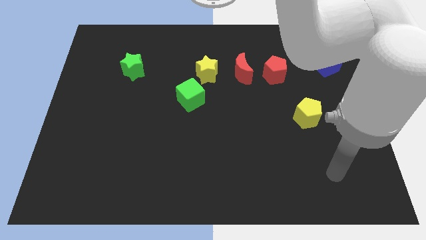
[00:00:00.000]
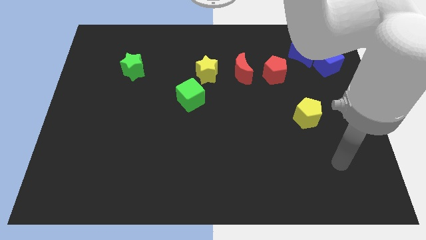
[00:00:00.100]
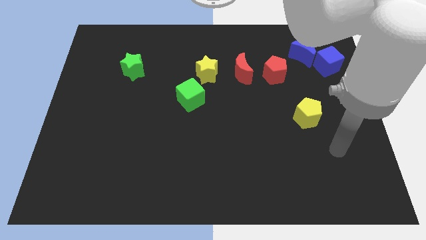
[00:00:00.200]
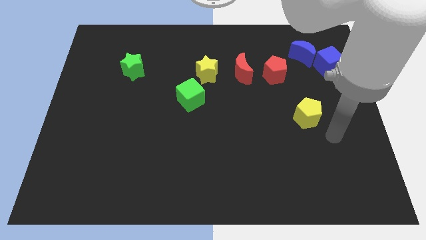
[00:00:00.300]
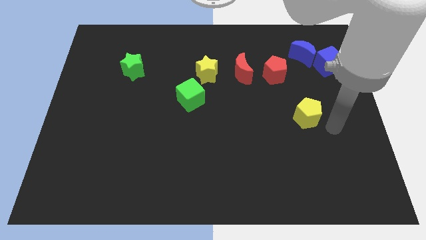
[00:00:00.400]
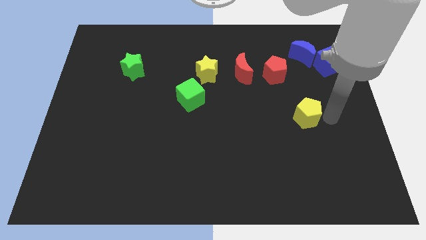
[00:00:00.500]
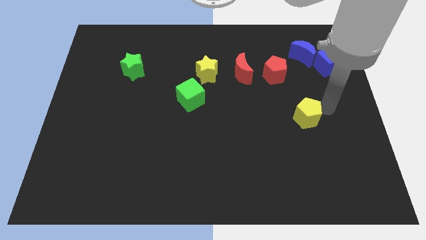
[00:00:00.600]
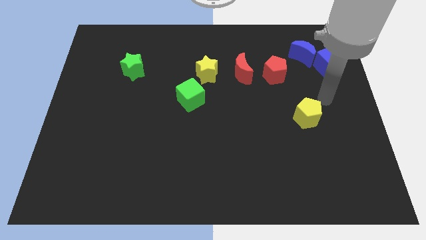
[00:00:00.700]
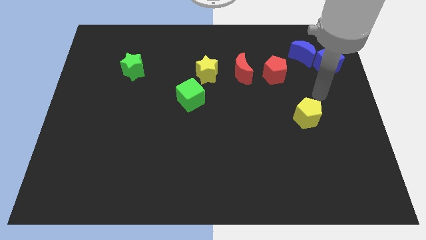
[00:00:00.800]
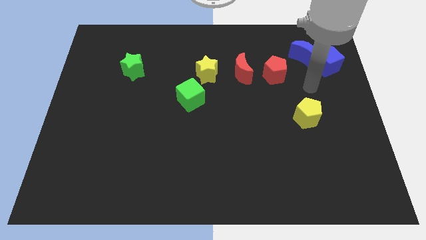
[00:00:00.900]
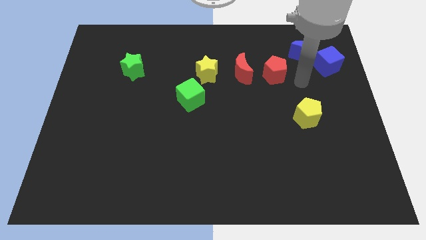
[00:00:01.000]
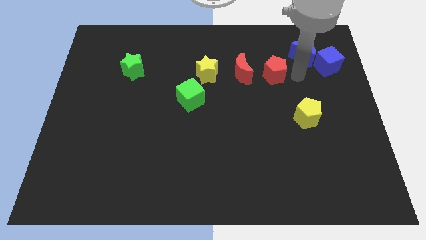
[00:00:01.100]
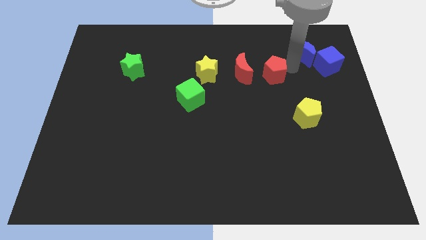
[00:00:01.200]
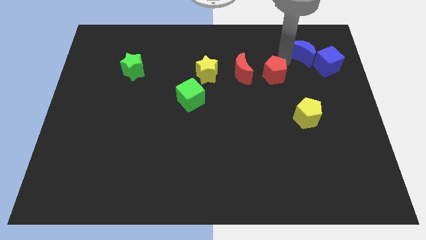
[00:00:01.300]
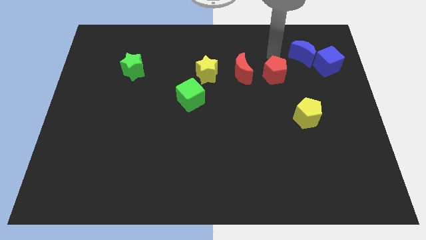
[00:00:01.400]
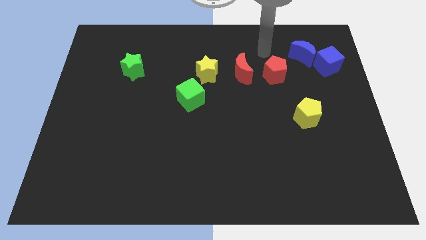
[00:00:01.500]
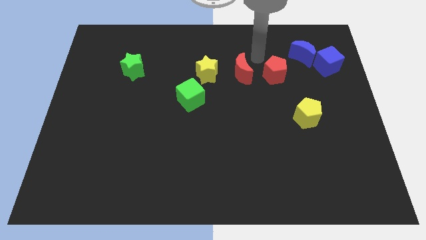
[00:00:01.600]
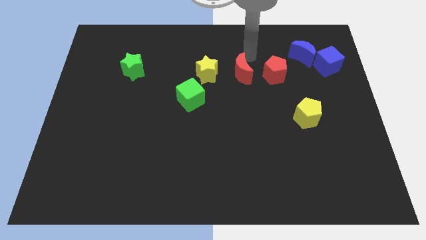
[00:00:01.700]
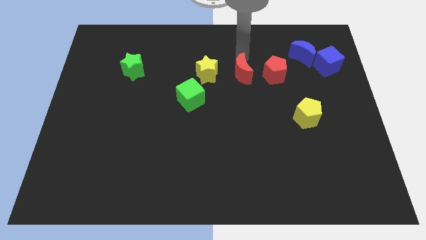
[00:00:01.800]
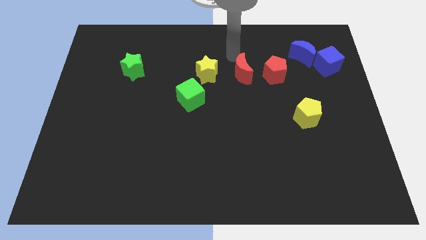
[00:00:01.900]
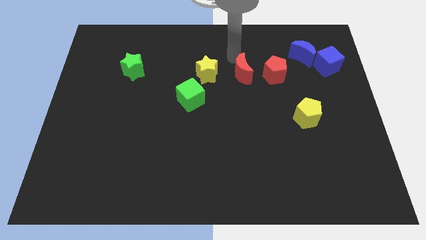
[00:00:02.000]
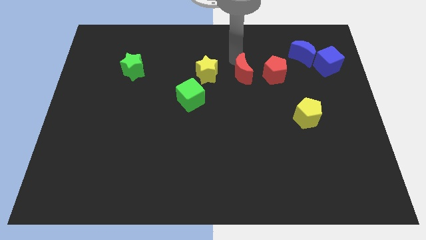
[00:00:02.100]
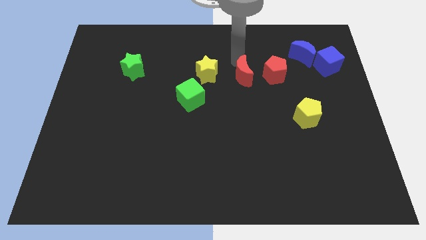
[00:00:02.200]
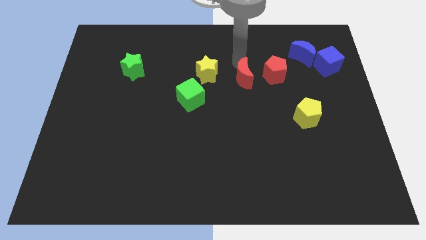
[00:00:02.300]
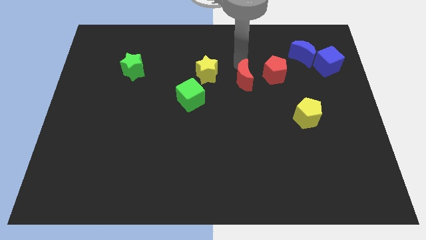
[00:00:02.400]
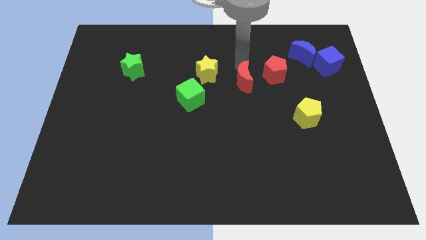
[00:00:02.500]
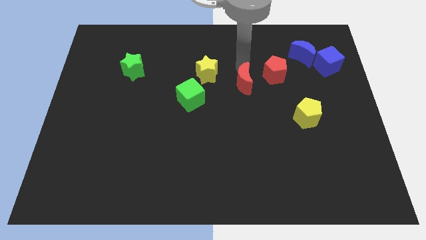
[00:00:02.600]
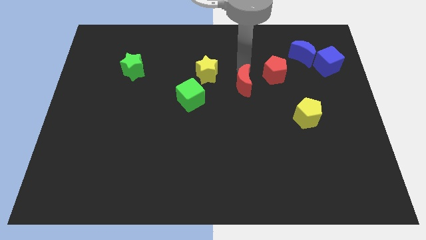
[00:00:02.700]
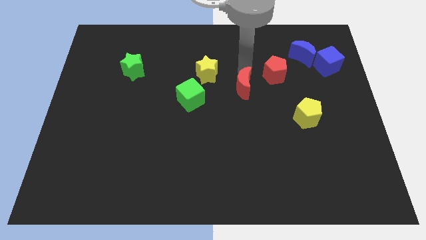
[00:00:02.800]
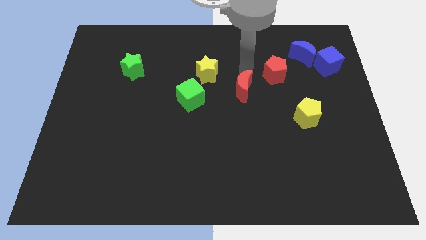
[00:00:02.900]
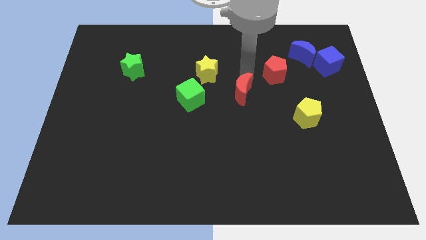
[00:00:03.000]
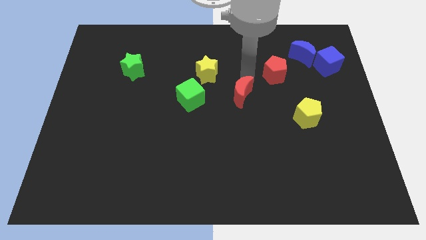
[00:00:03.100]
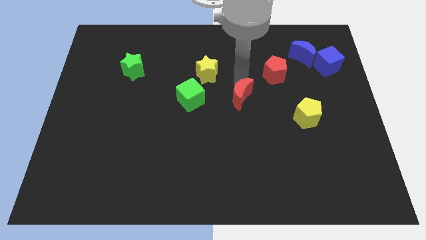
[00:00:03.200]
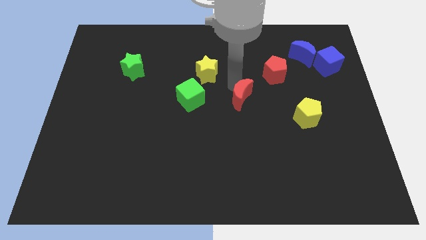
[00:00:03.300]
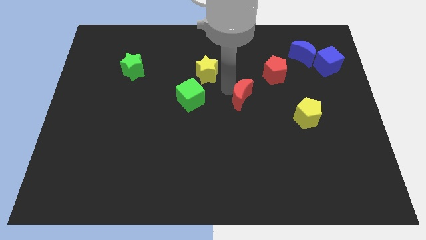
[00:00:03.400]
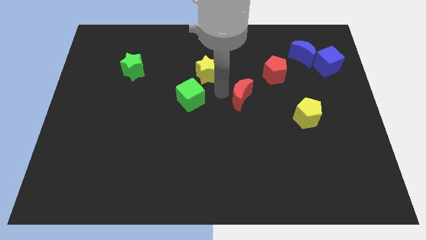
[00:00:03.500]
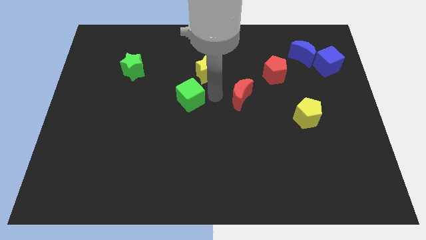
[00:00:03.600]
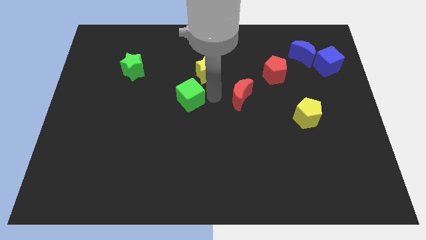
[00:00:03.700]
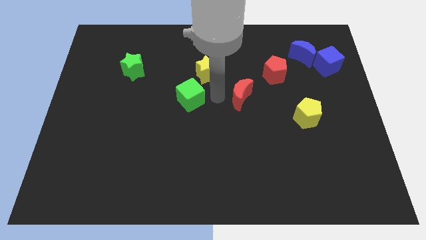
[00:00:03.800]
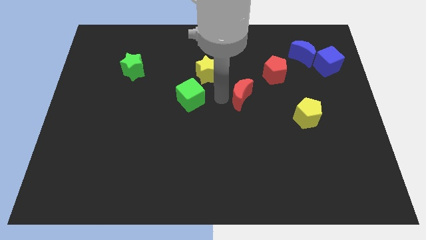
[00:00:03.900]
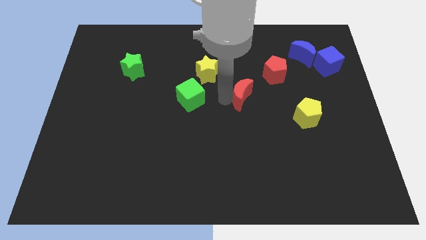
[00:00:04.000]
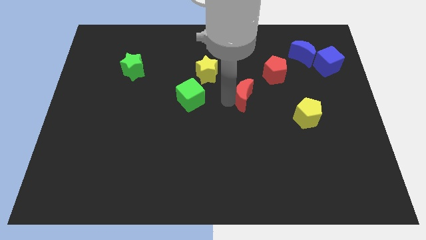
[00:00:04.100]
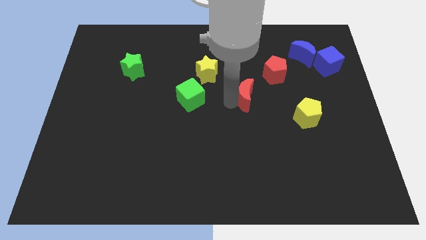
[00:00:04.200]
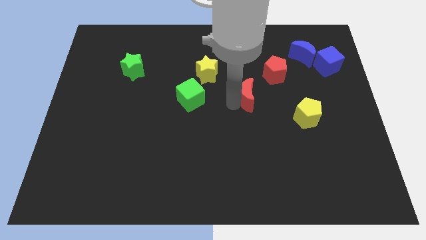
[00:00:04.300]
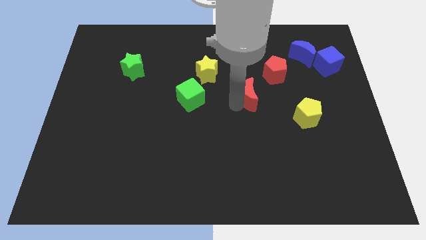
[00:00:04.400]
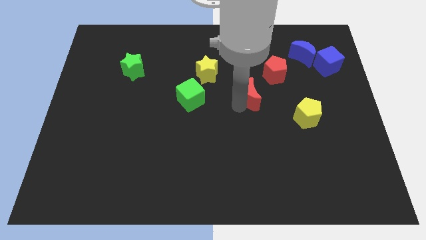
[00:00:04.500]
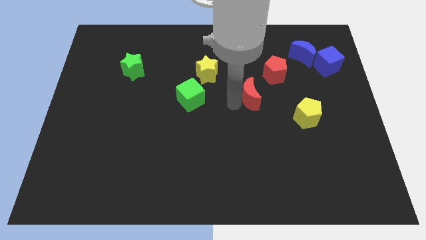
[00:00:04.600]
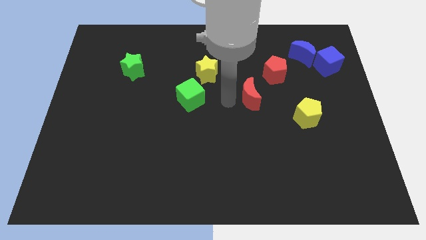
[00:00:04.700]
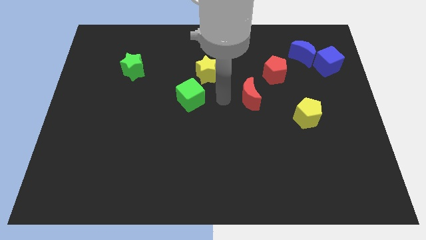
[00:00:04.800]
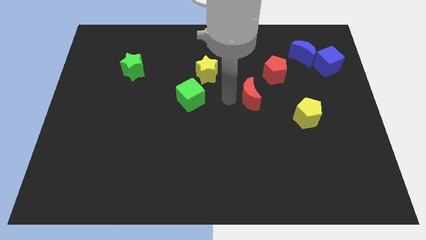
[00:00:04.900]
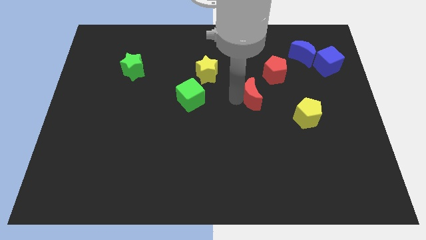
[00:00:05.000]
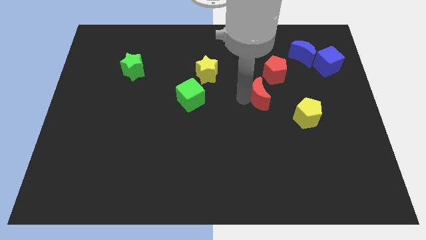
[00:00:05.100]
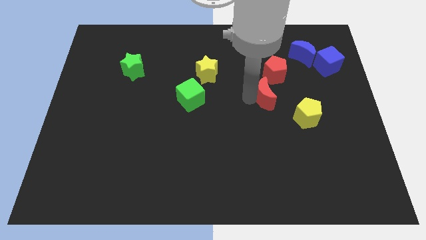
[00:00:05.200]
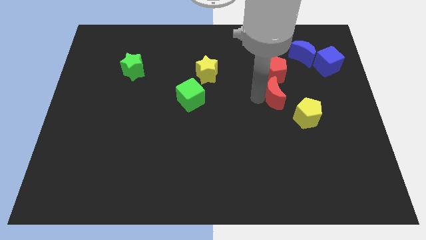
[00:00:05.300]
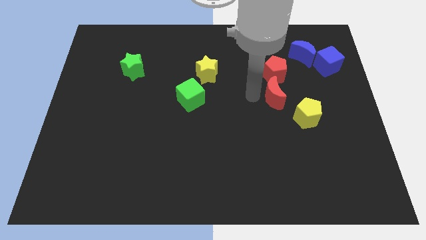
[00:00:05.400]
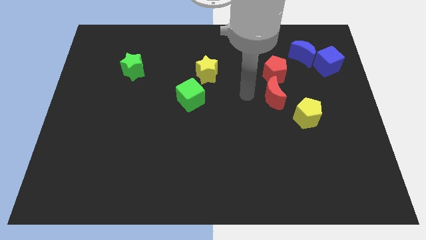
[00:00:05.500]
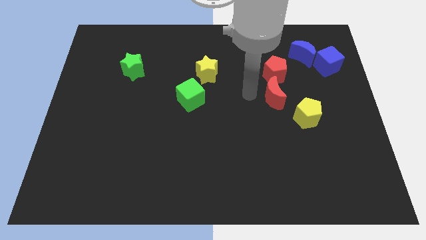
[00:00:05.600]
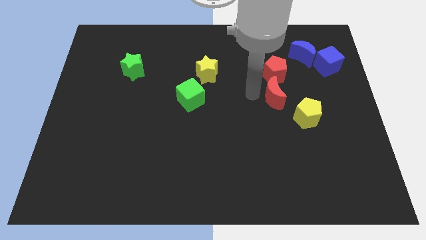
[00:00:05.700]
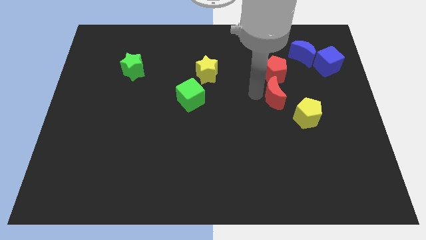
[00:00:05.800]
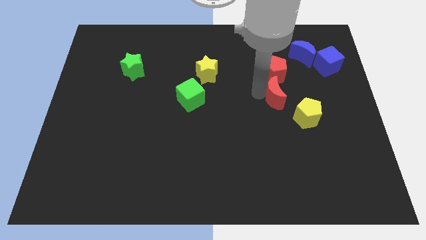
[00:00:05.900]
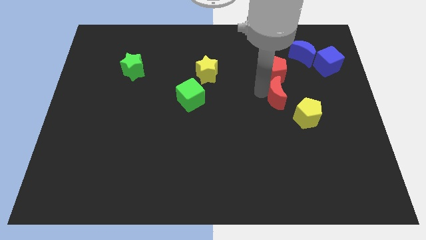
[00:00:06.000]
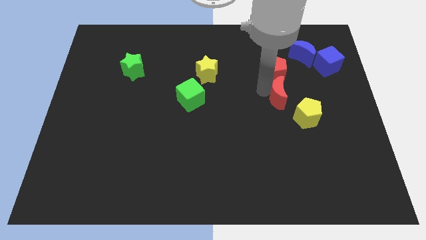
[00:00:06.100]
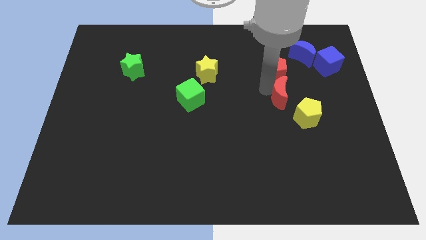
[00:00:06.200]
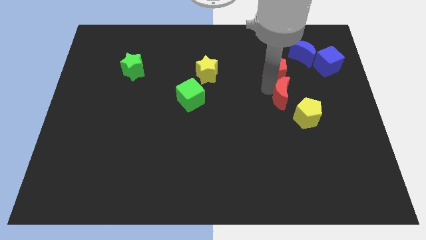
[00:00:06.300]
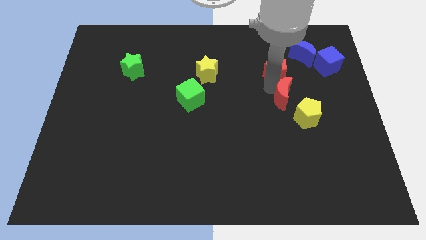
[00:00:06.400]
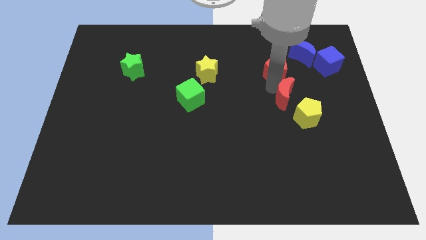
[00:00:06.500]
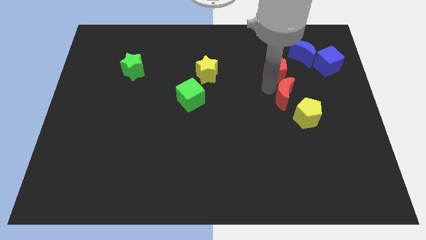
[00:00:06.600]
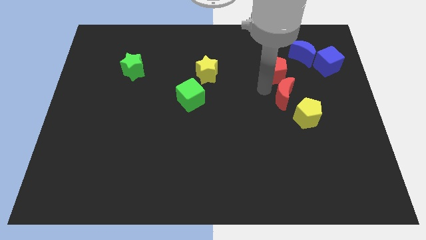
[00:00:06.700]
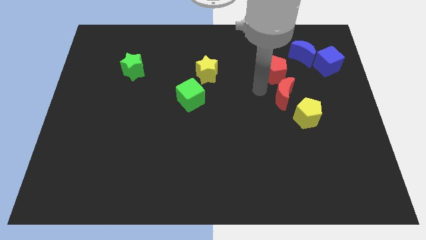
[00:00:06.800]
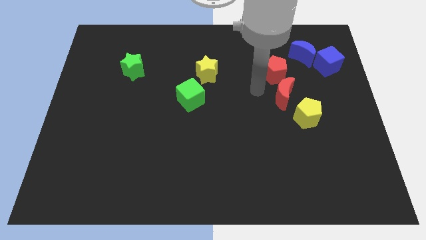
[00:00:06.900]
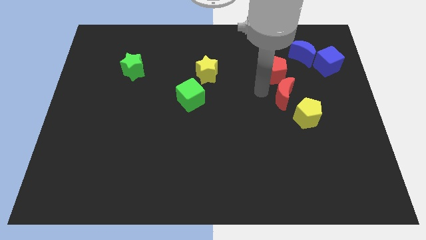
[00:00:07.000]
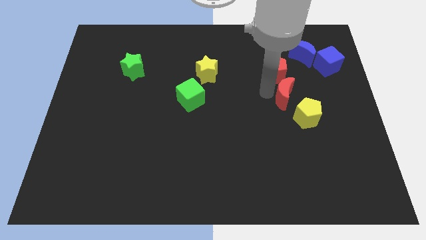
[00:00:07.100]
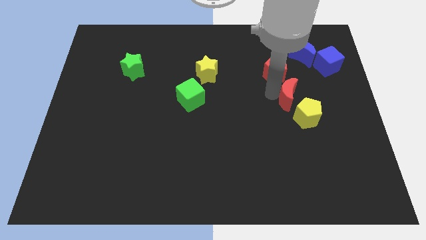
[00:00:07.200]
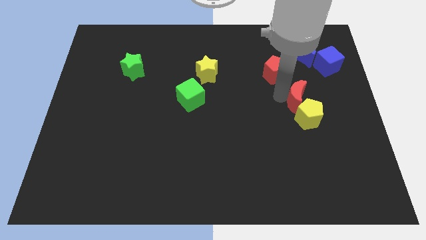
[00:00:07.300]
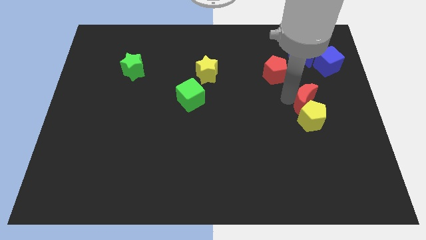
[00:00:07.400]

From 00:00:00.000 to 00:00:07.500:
push the red moon diagonally up and to the right of the yellow pentagon
